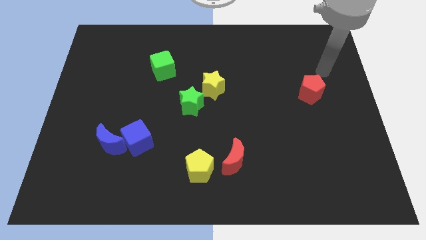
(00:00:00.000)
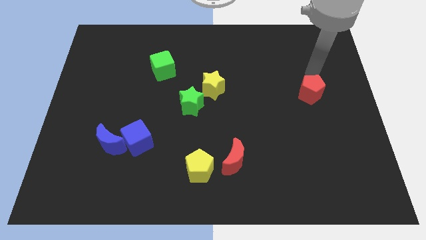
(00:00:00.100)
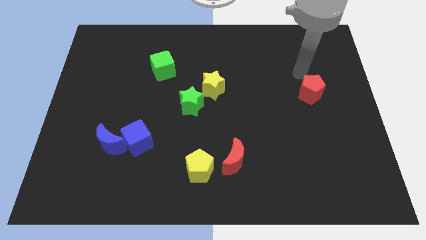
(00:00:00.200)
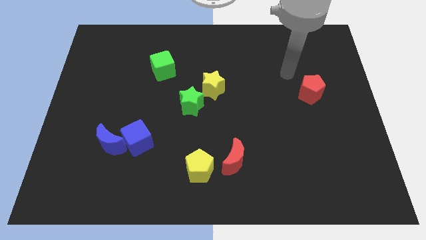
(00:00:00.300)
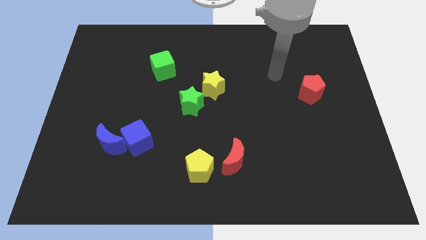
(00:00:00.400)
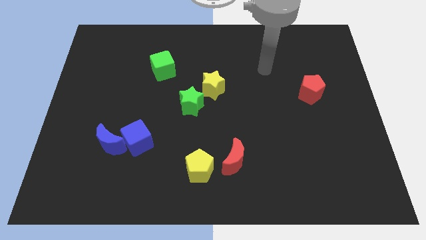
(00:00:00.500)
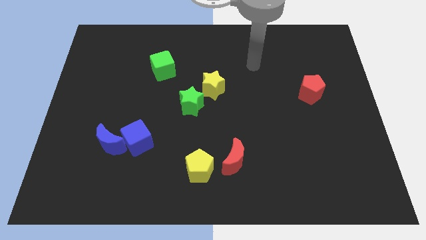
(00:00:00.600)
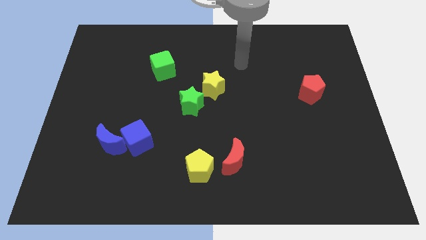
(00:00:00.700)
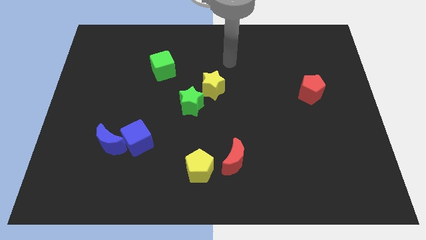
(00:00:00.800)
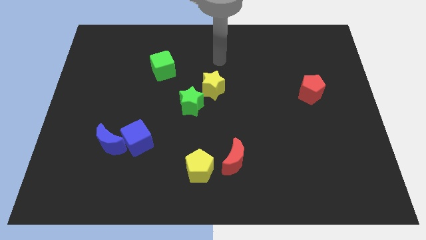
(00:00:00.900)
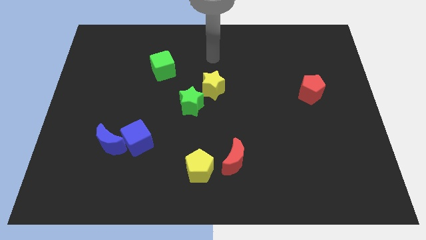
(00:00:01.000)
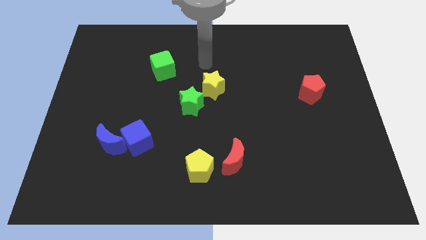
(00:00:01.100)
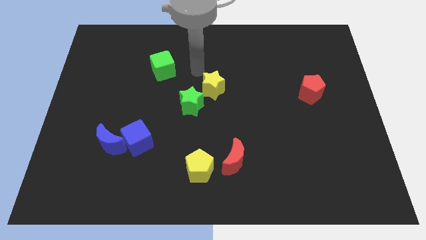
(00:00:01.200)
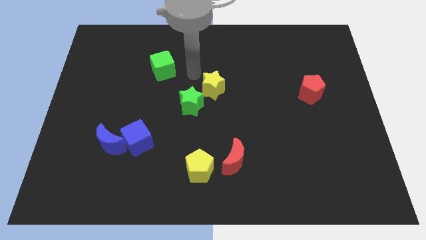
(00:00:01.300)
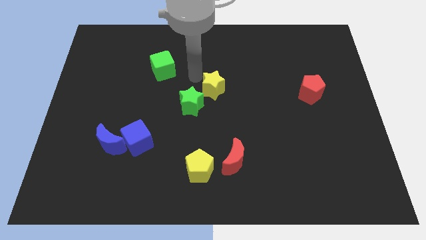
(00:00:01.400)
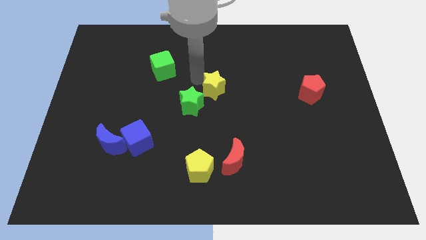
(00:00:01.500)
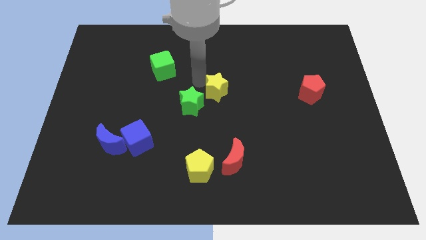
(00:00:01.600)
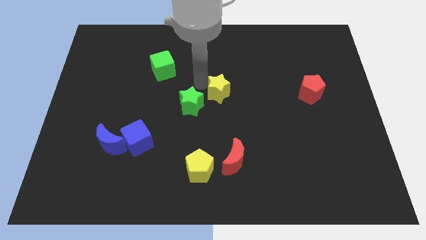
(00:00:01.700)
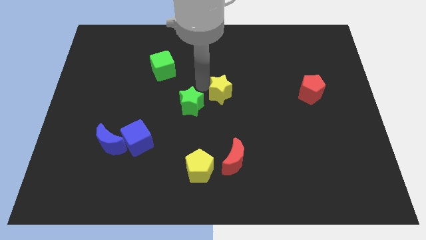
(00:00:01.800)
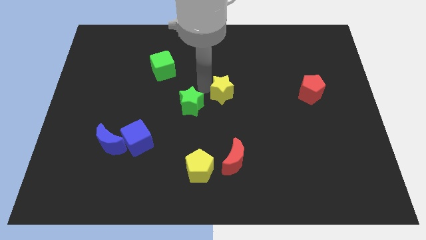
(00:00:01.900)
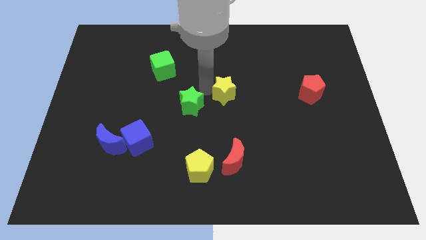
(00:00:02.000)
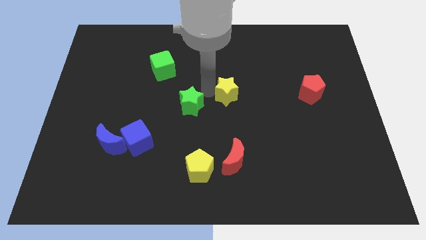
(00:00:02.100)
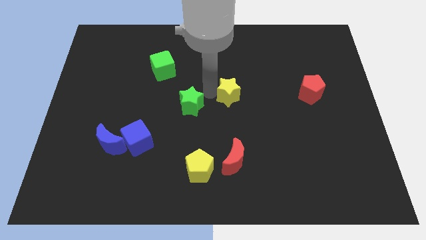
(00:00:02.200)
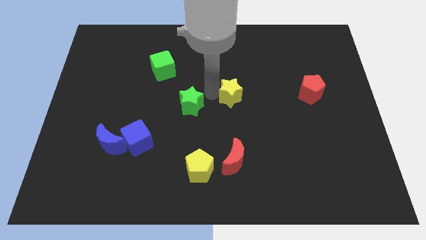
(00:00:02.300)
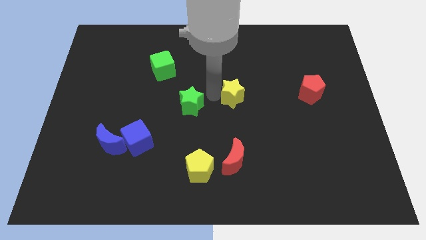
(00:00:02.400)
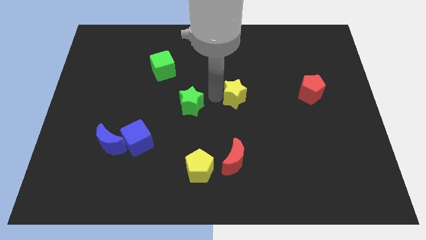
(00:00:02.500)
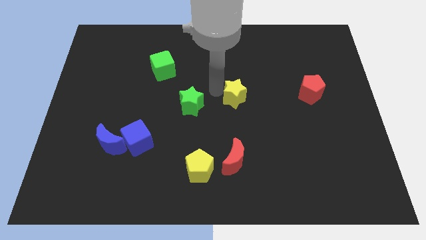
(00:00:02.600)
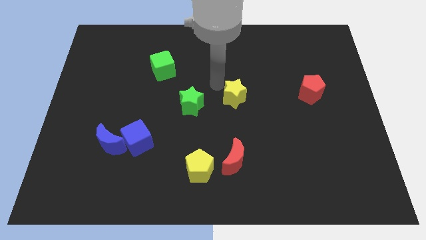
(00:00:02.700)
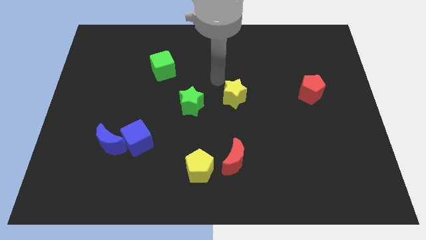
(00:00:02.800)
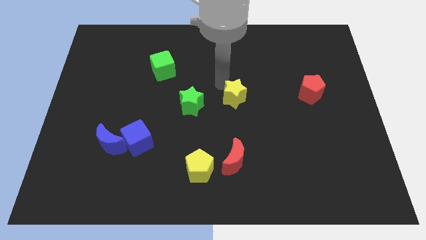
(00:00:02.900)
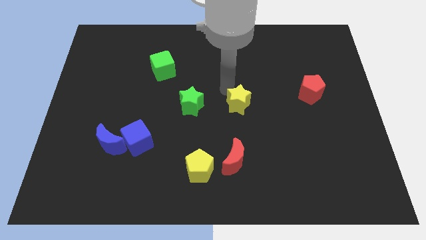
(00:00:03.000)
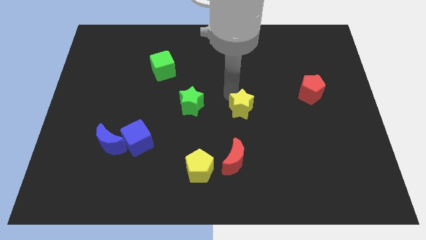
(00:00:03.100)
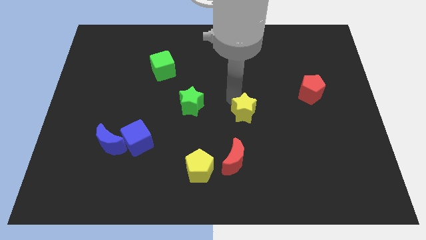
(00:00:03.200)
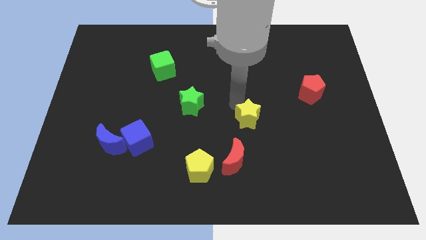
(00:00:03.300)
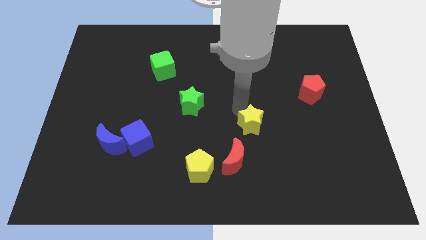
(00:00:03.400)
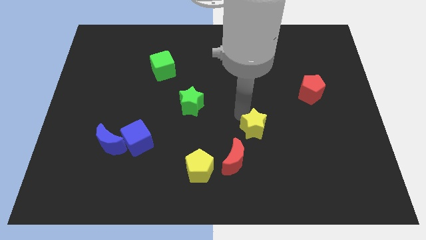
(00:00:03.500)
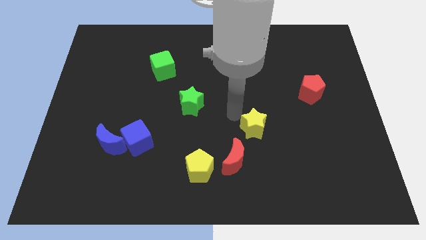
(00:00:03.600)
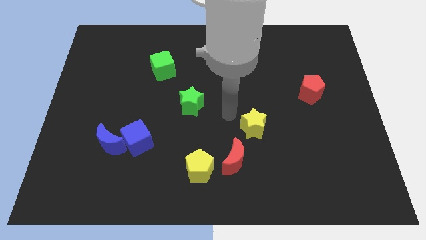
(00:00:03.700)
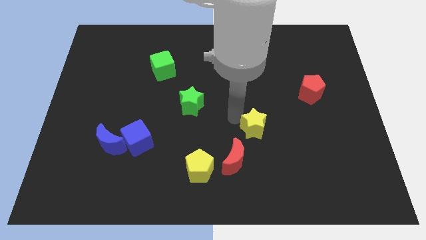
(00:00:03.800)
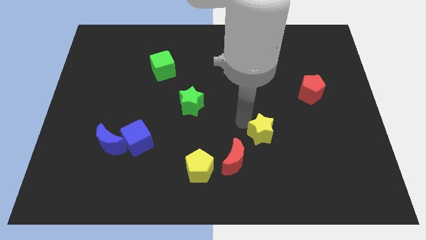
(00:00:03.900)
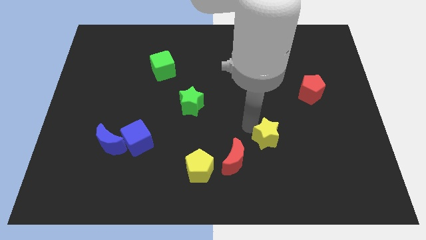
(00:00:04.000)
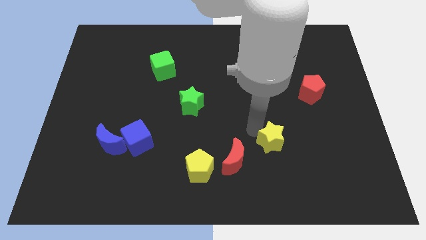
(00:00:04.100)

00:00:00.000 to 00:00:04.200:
move the yellow star down and to the right diagonally

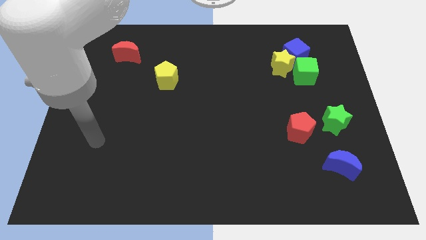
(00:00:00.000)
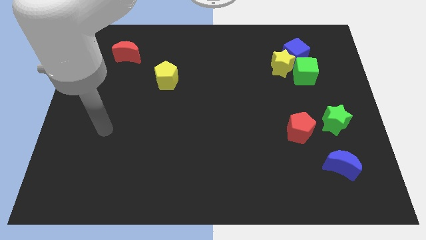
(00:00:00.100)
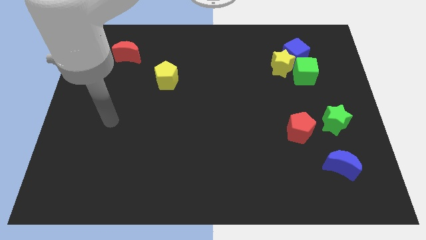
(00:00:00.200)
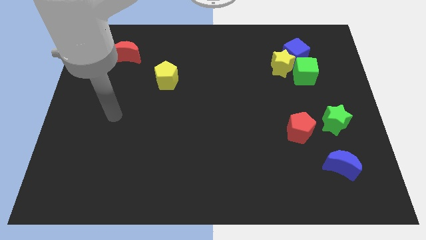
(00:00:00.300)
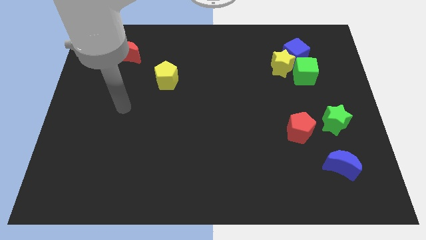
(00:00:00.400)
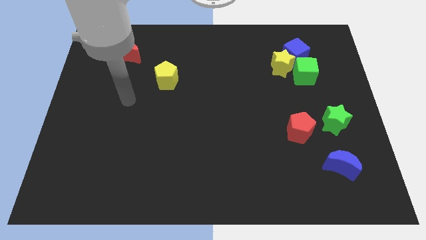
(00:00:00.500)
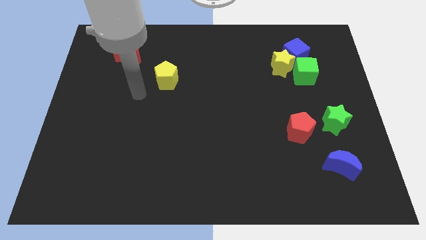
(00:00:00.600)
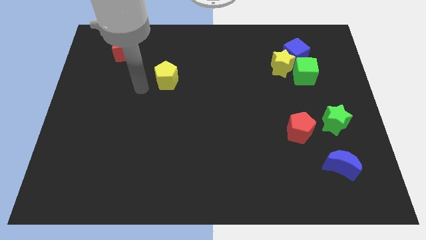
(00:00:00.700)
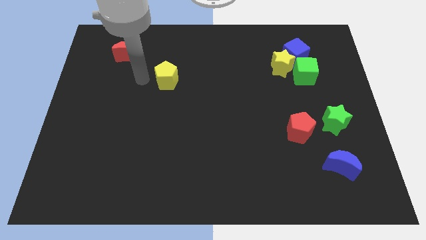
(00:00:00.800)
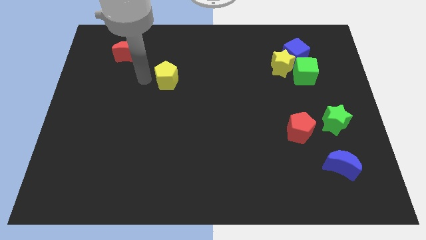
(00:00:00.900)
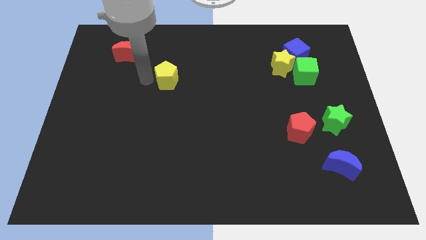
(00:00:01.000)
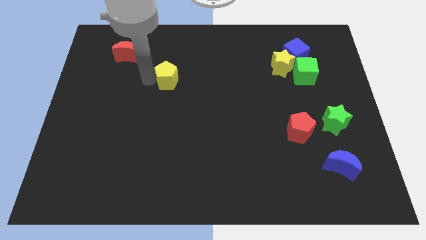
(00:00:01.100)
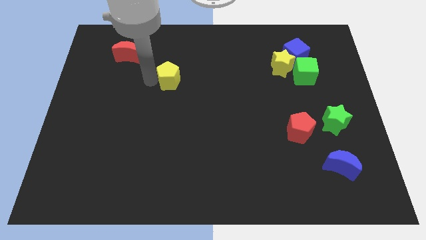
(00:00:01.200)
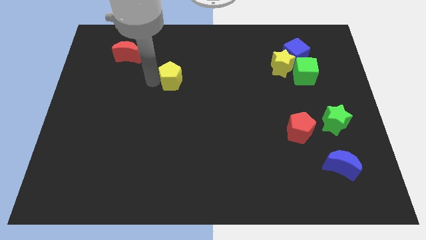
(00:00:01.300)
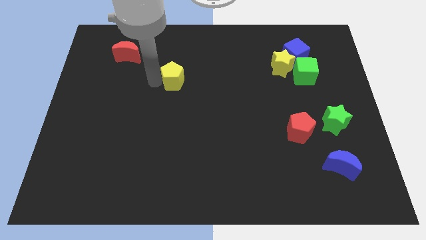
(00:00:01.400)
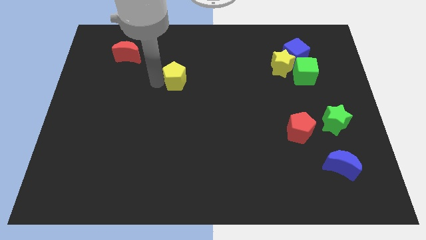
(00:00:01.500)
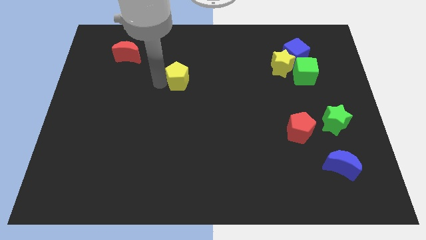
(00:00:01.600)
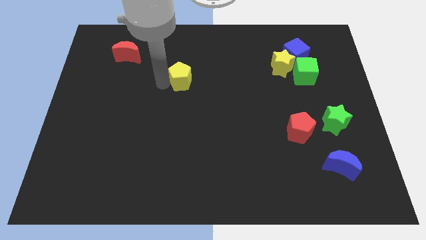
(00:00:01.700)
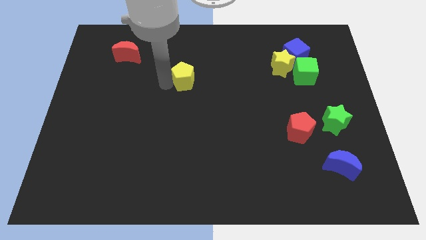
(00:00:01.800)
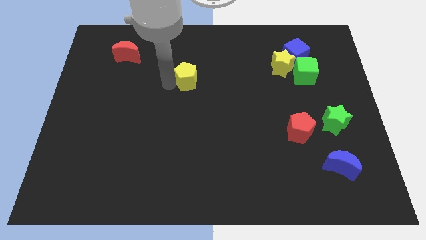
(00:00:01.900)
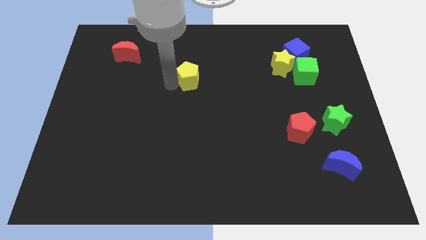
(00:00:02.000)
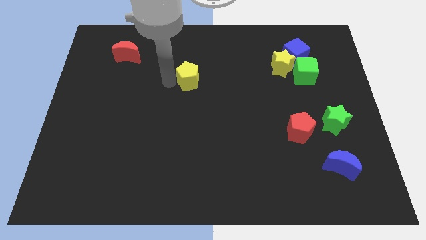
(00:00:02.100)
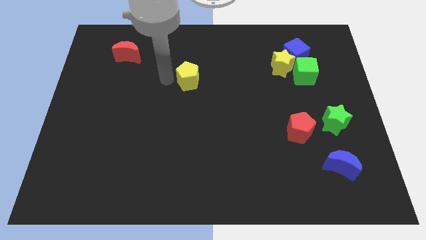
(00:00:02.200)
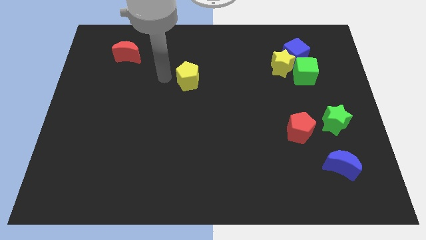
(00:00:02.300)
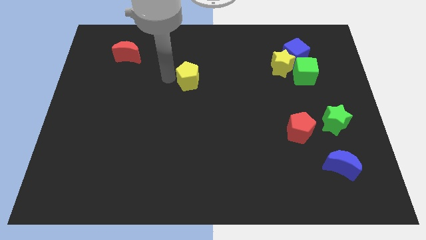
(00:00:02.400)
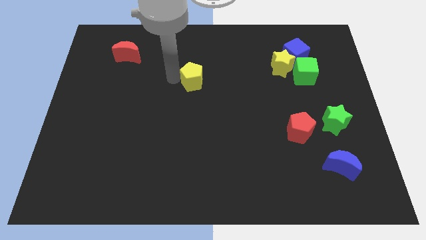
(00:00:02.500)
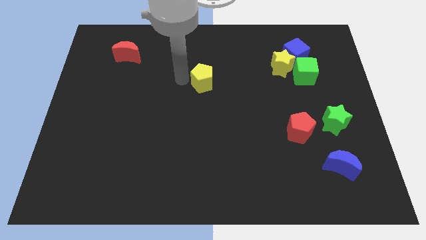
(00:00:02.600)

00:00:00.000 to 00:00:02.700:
slightly slide the yellow pentagon right

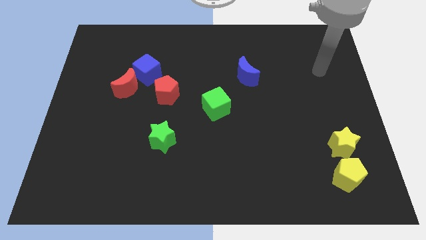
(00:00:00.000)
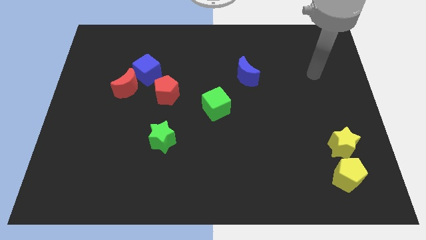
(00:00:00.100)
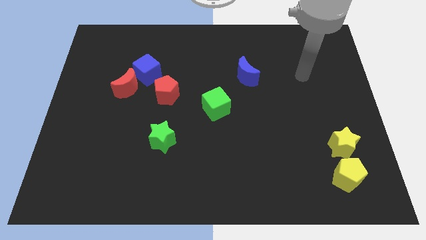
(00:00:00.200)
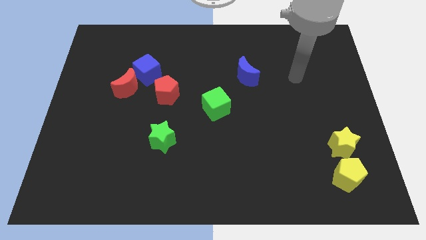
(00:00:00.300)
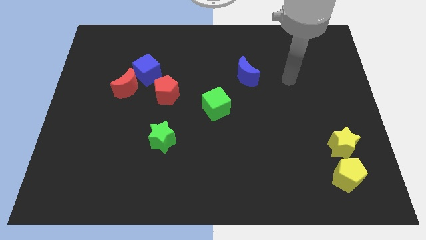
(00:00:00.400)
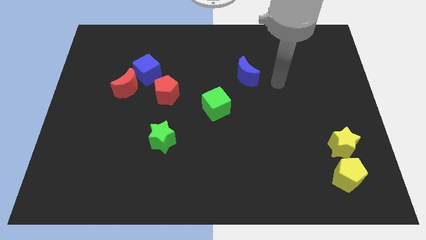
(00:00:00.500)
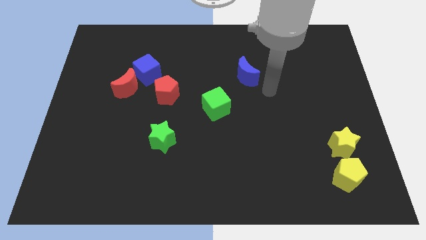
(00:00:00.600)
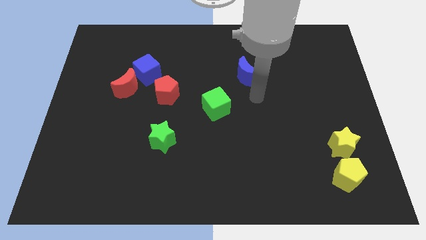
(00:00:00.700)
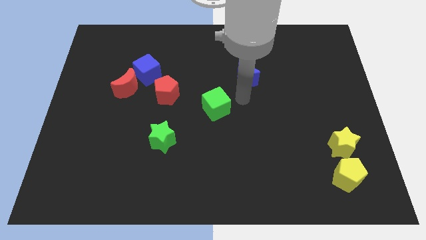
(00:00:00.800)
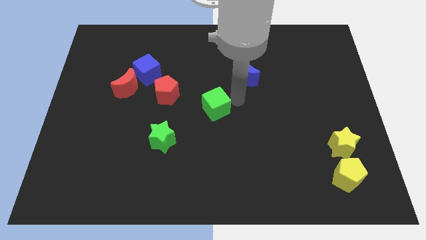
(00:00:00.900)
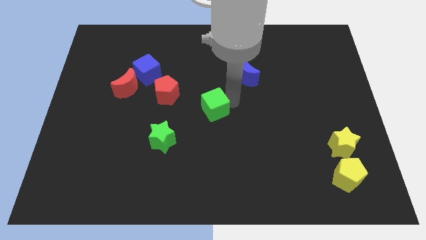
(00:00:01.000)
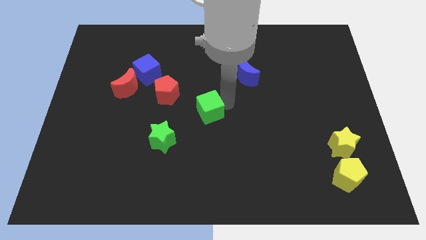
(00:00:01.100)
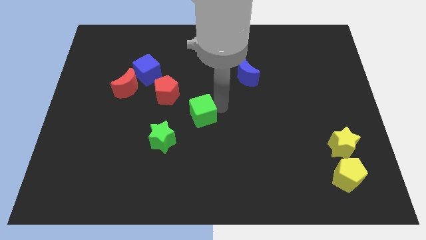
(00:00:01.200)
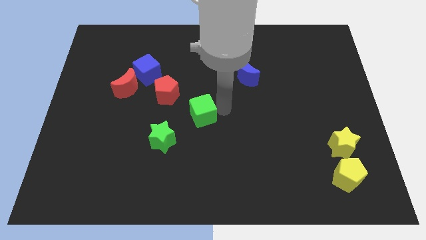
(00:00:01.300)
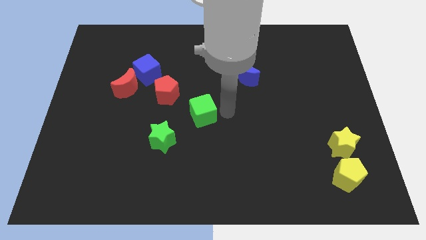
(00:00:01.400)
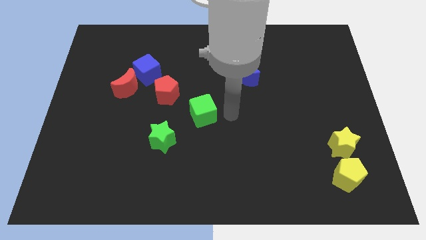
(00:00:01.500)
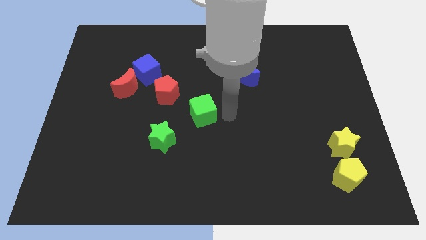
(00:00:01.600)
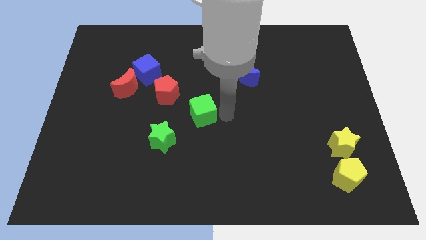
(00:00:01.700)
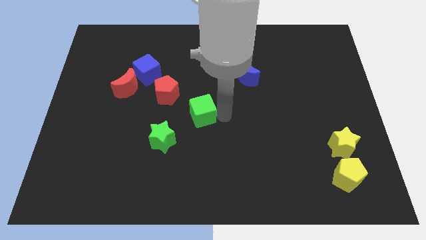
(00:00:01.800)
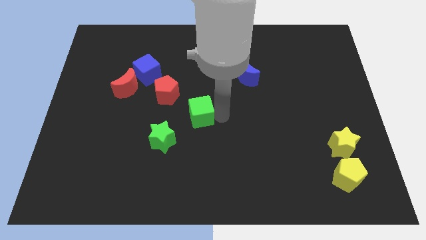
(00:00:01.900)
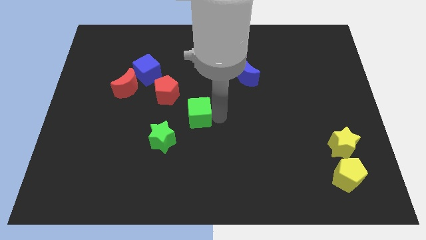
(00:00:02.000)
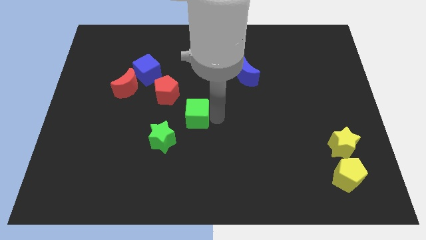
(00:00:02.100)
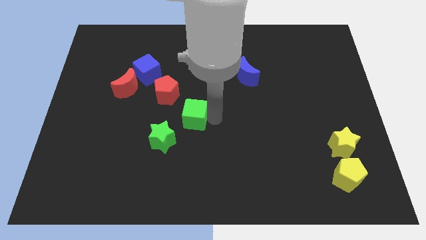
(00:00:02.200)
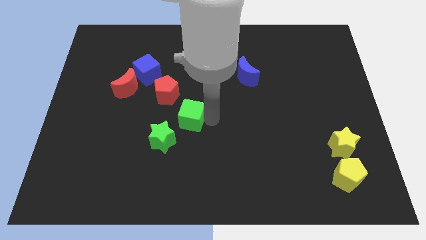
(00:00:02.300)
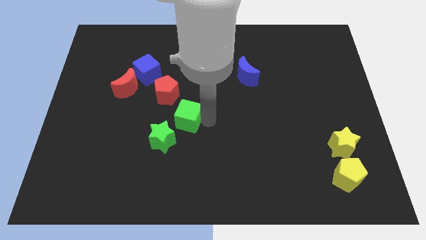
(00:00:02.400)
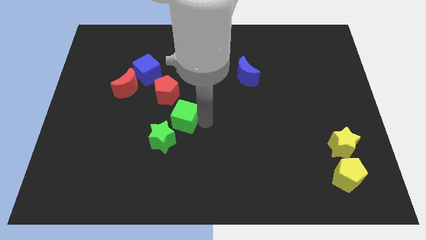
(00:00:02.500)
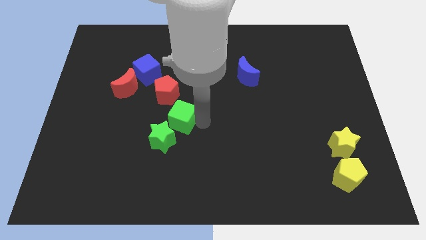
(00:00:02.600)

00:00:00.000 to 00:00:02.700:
slightly slide the green cube to the left
